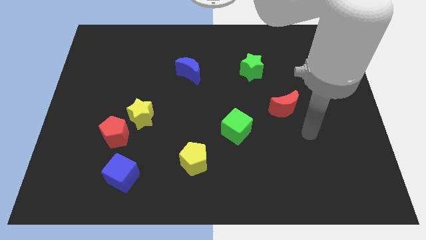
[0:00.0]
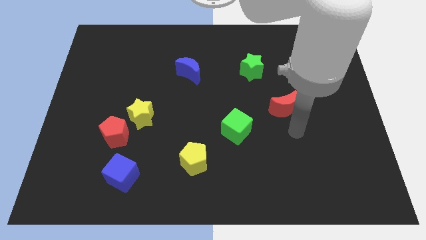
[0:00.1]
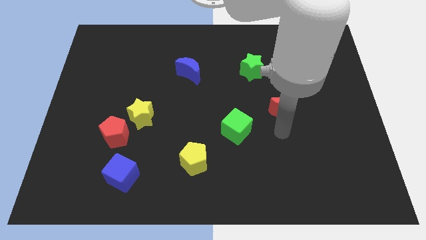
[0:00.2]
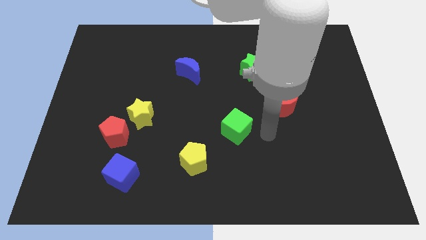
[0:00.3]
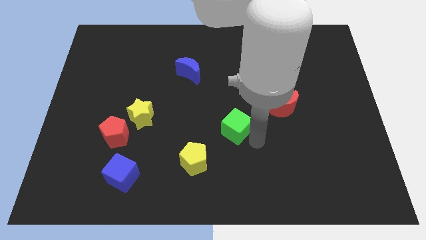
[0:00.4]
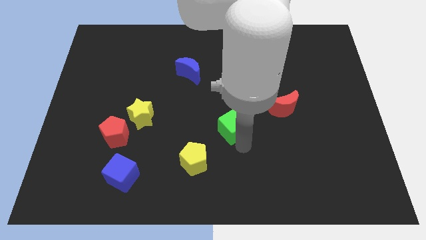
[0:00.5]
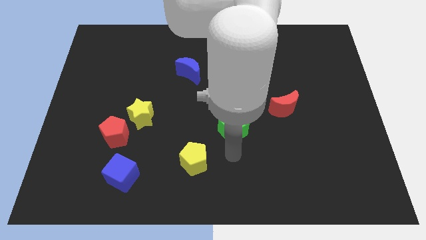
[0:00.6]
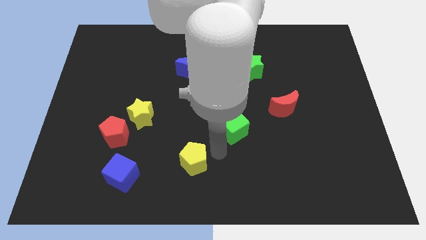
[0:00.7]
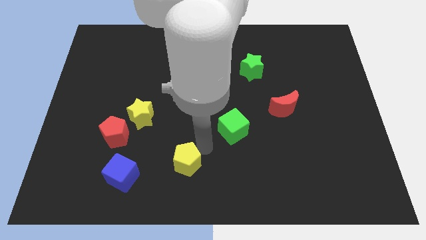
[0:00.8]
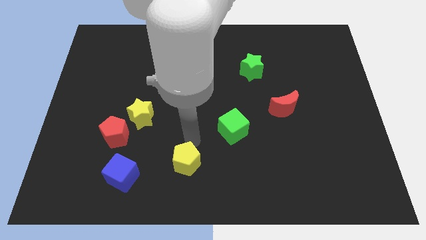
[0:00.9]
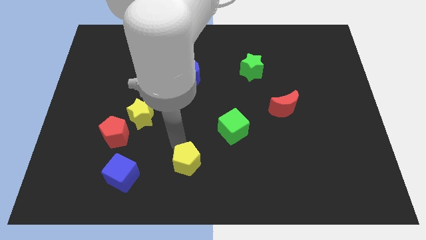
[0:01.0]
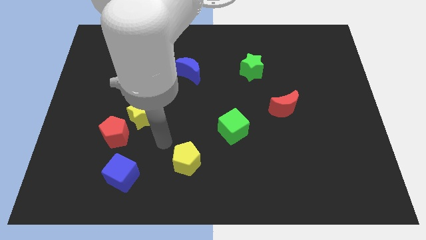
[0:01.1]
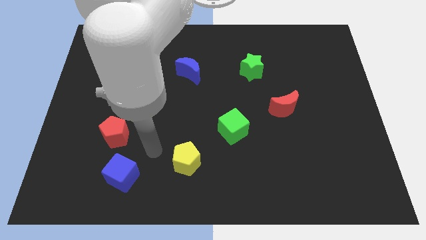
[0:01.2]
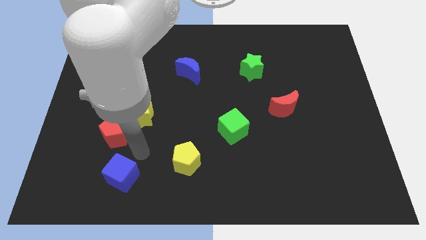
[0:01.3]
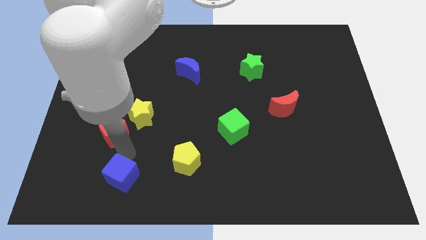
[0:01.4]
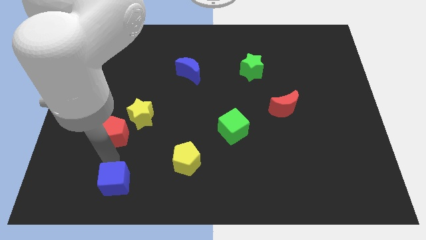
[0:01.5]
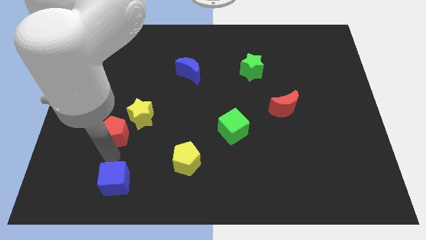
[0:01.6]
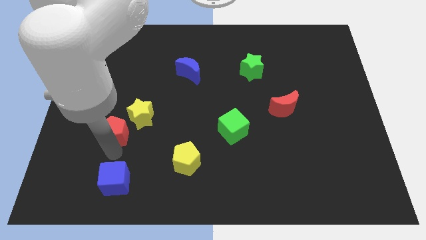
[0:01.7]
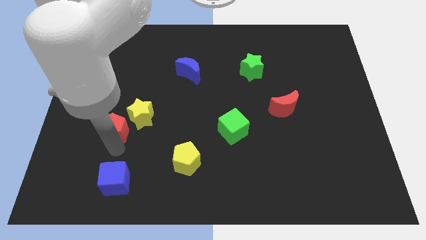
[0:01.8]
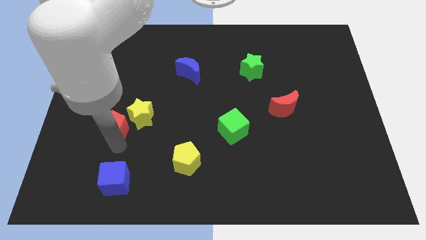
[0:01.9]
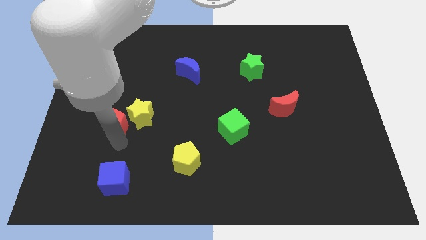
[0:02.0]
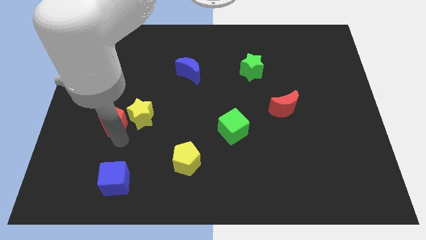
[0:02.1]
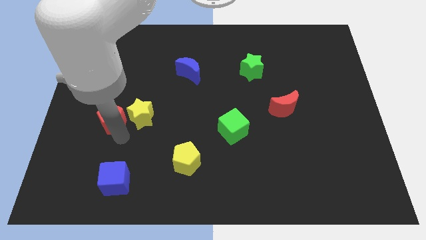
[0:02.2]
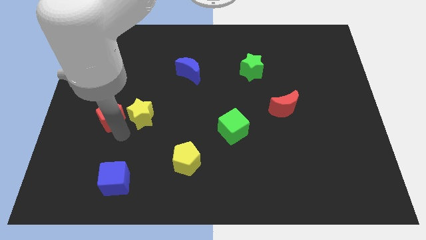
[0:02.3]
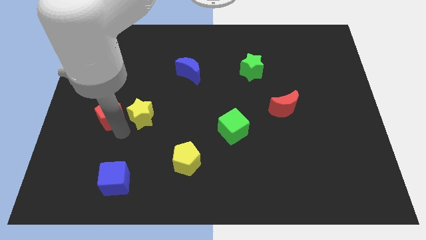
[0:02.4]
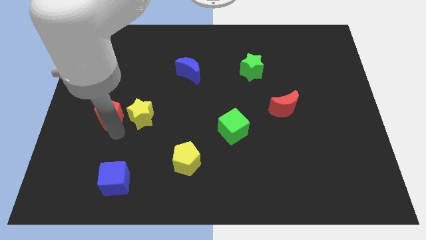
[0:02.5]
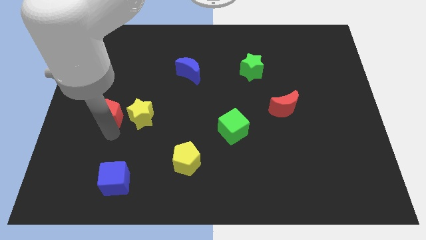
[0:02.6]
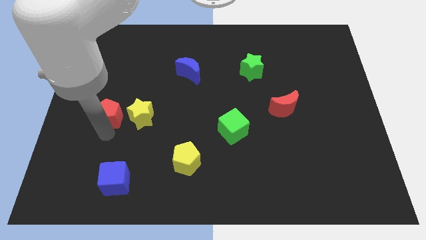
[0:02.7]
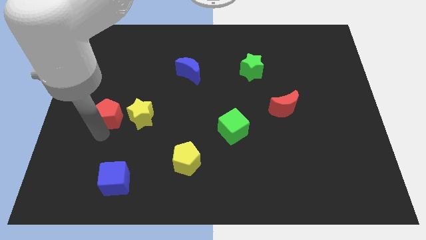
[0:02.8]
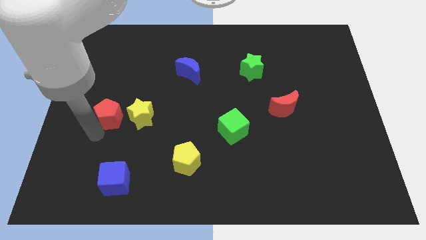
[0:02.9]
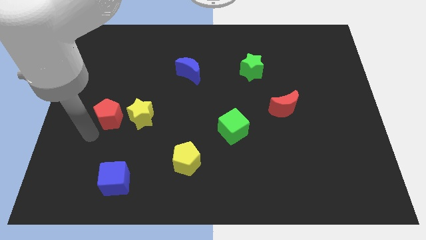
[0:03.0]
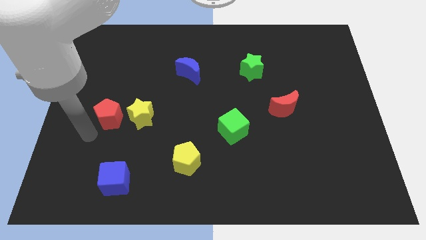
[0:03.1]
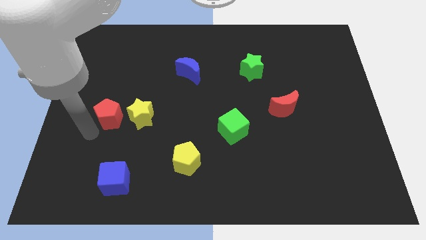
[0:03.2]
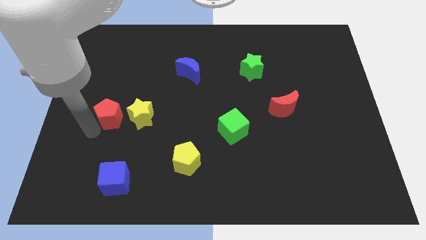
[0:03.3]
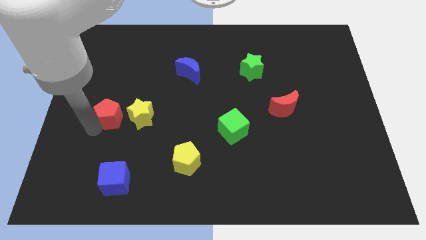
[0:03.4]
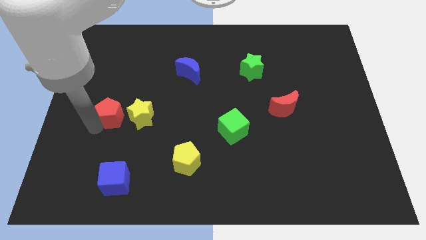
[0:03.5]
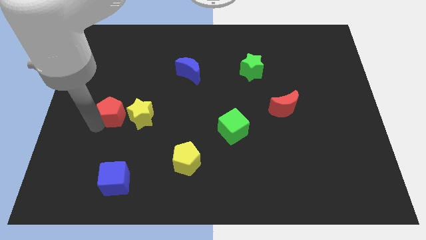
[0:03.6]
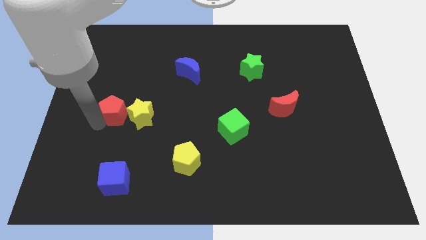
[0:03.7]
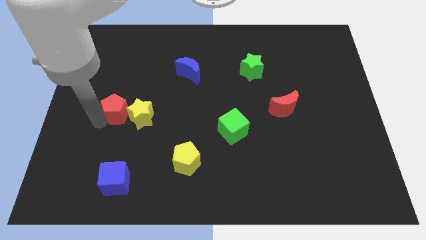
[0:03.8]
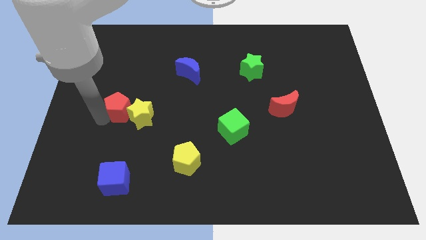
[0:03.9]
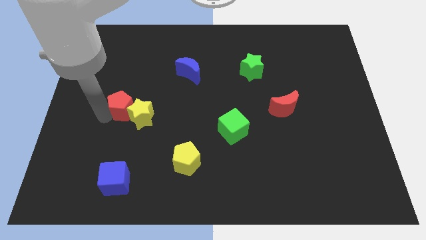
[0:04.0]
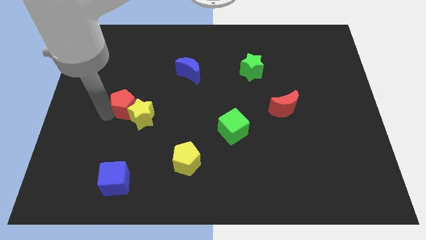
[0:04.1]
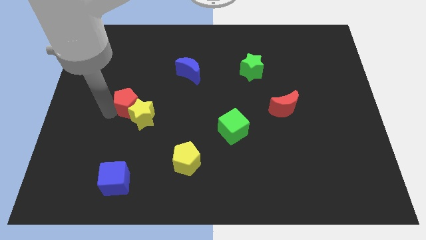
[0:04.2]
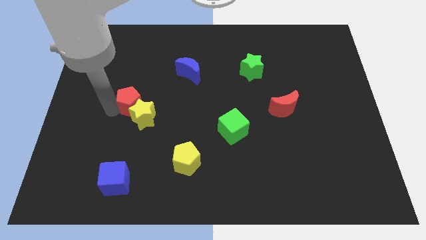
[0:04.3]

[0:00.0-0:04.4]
slide the red pentagon upwards and to the right slightly

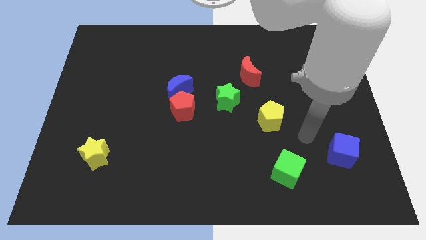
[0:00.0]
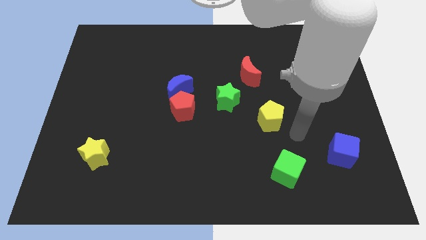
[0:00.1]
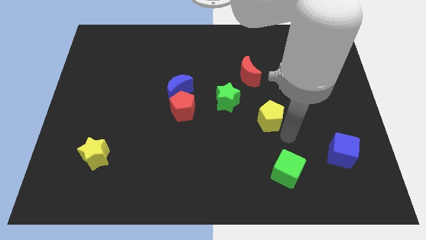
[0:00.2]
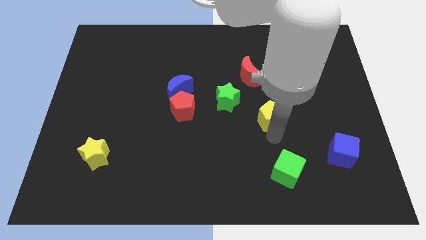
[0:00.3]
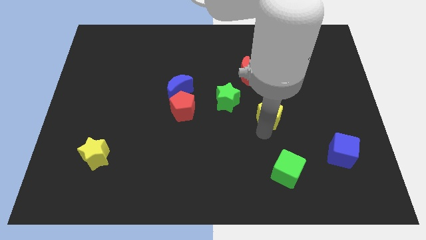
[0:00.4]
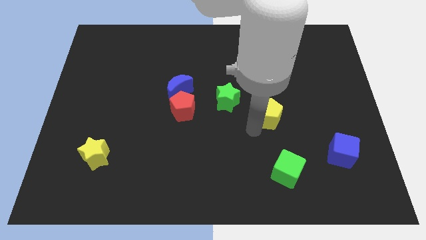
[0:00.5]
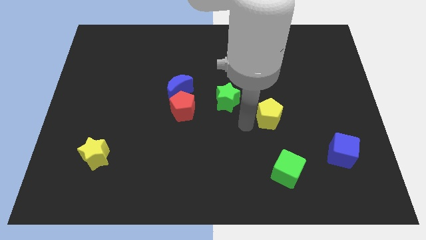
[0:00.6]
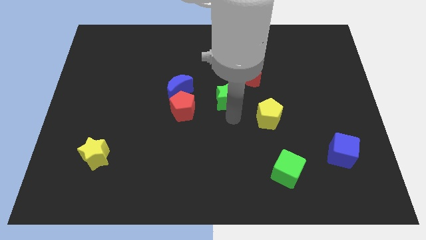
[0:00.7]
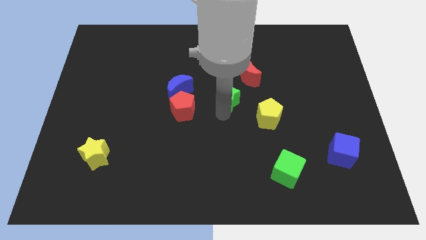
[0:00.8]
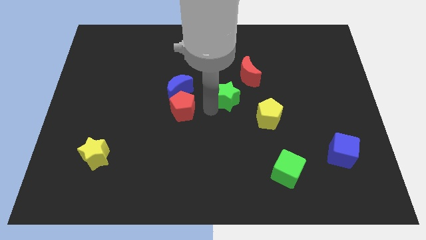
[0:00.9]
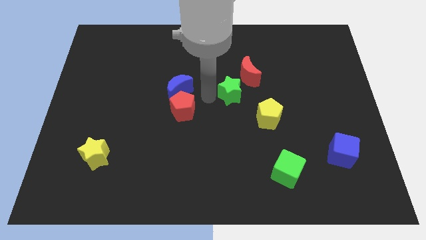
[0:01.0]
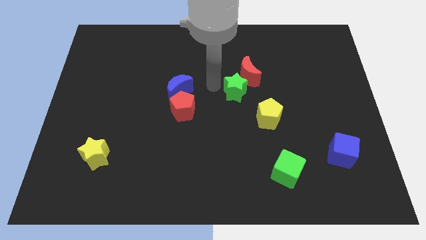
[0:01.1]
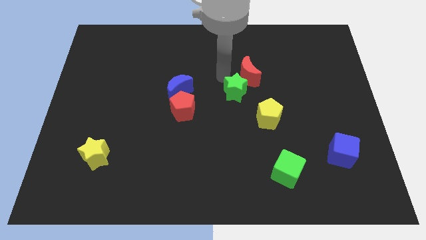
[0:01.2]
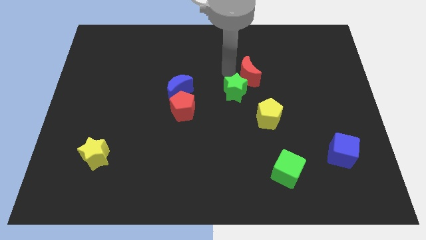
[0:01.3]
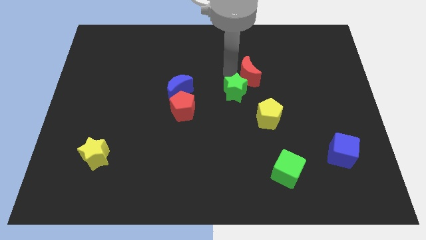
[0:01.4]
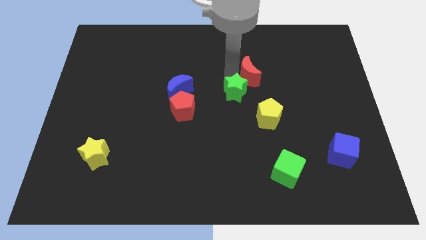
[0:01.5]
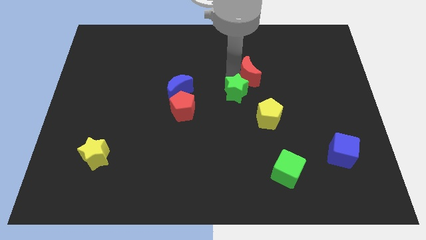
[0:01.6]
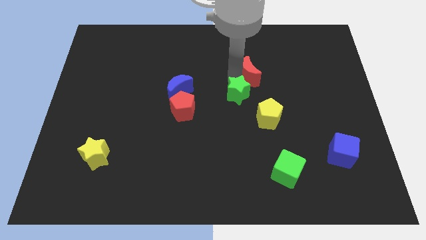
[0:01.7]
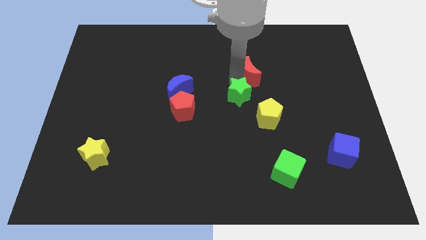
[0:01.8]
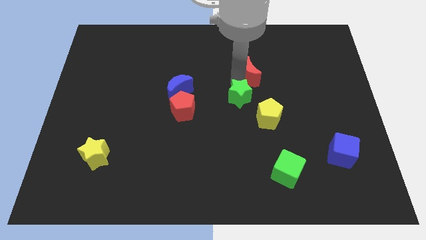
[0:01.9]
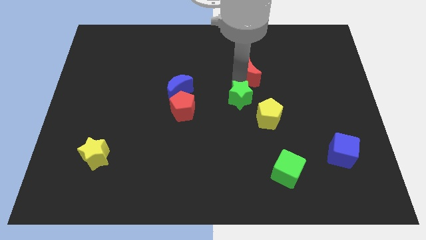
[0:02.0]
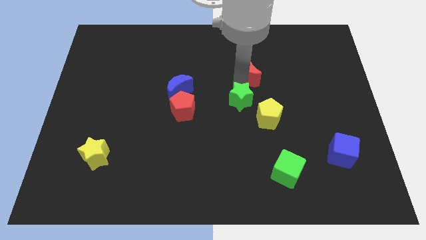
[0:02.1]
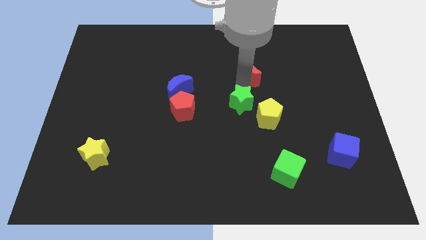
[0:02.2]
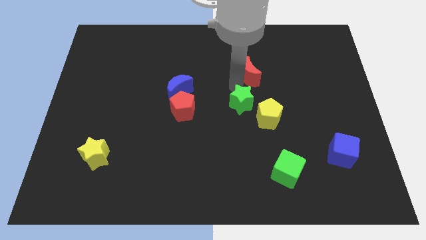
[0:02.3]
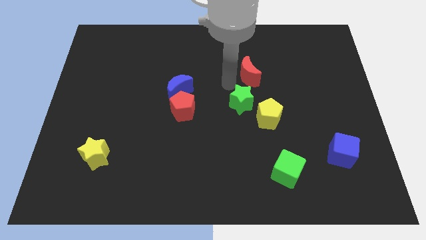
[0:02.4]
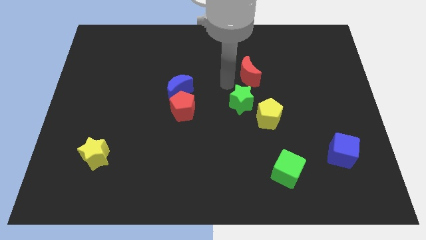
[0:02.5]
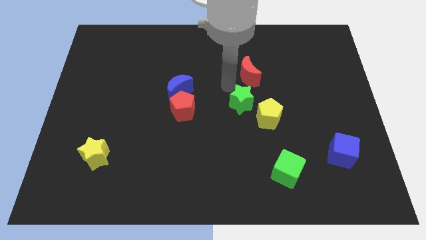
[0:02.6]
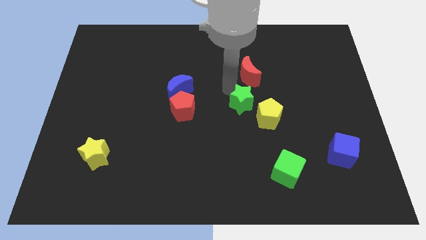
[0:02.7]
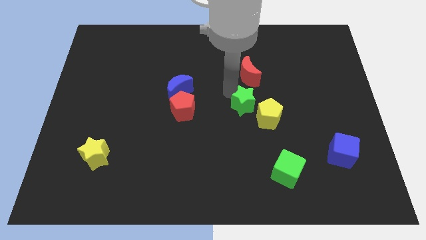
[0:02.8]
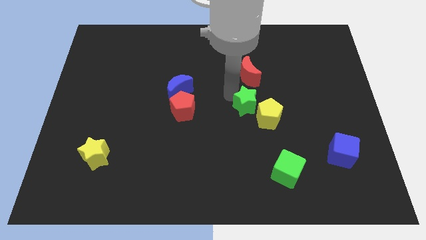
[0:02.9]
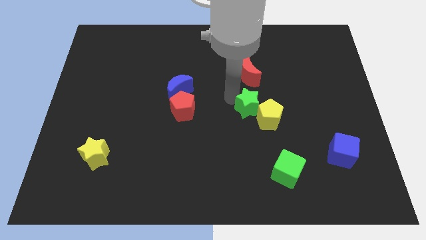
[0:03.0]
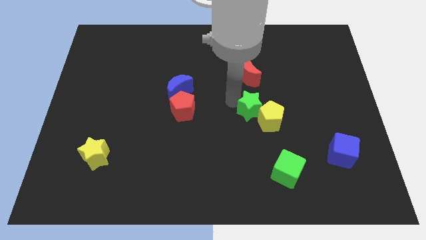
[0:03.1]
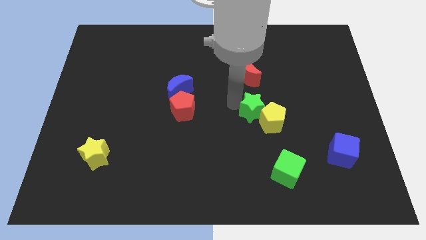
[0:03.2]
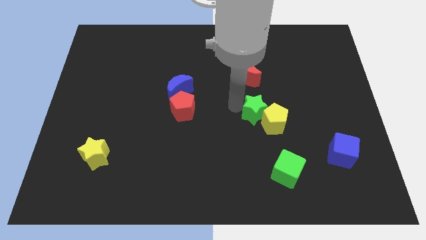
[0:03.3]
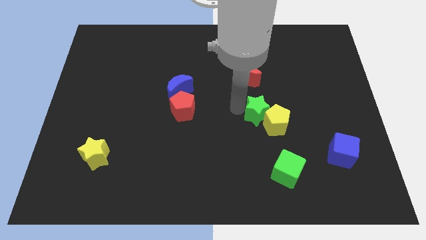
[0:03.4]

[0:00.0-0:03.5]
move the green star a bit downwards and right diagonally

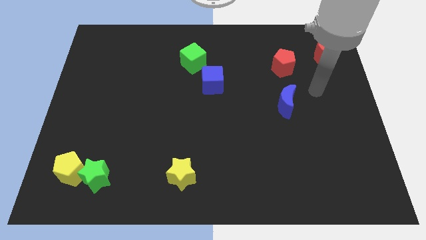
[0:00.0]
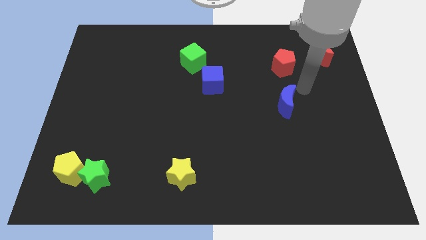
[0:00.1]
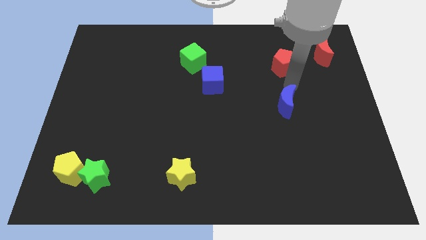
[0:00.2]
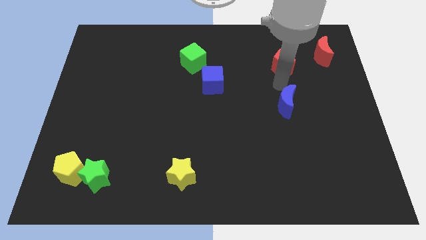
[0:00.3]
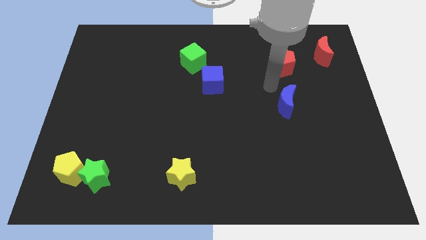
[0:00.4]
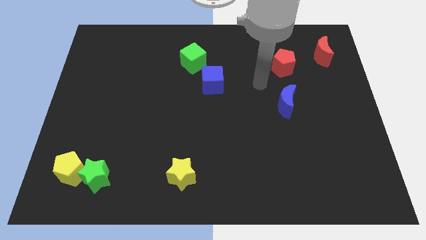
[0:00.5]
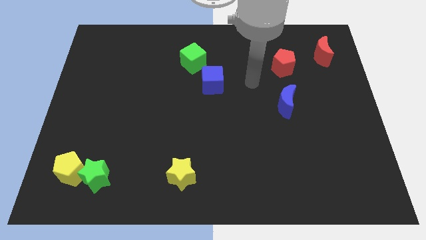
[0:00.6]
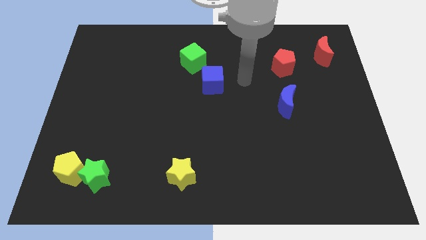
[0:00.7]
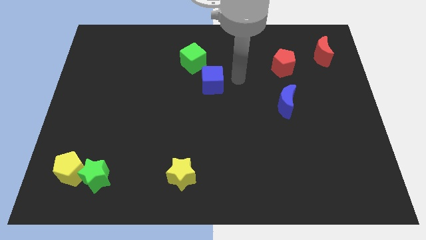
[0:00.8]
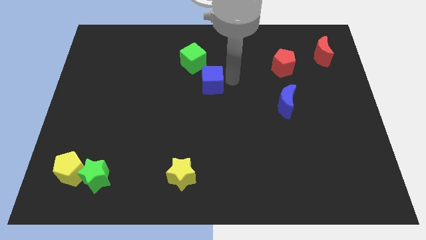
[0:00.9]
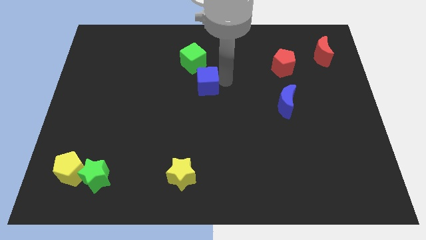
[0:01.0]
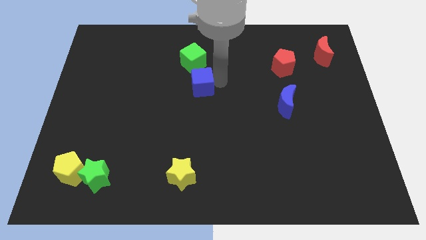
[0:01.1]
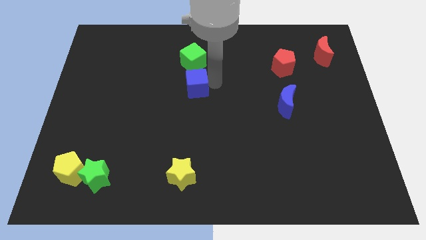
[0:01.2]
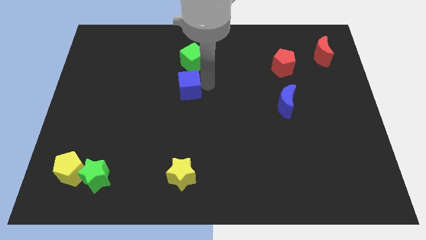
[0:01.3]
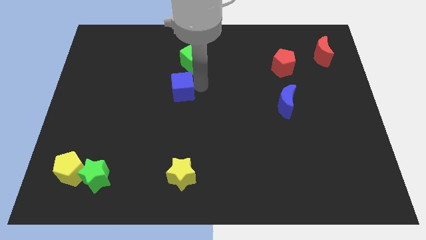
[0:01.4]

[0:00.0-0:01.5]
slightly slide the blue cube left
